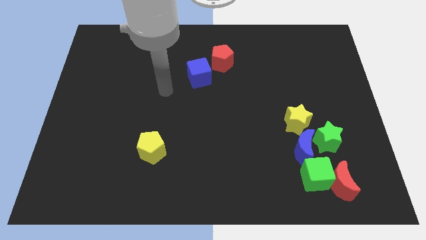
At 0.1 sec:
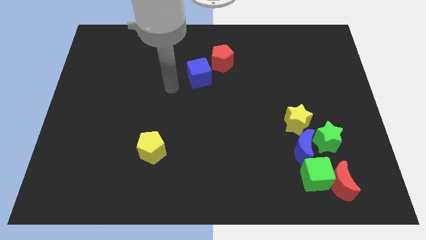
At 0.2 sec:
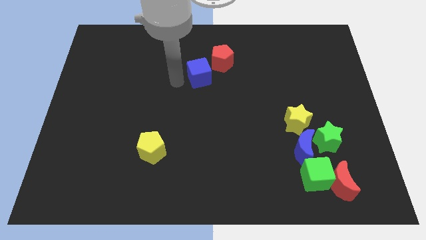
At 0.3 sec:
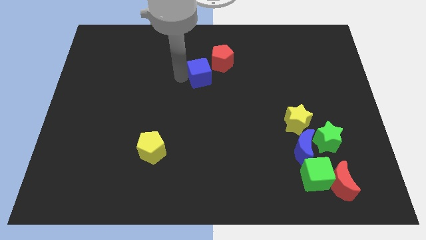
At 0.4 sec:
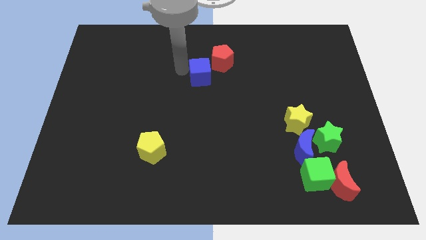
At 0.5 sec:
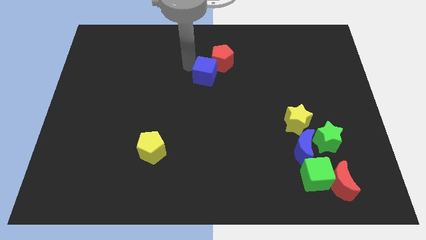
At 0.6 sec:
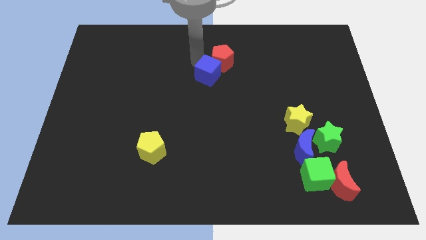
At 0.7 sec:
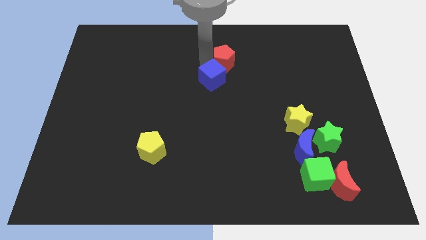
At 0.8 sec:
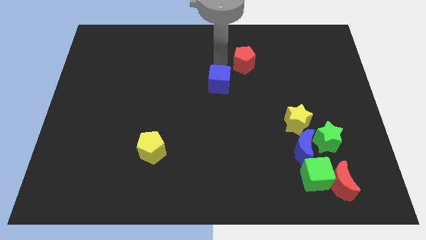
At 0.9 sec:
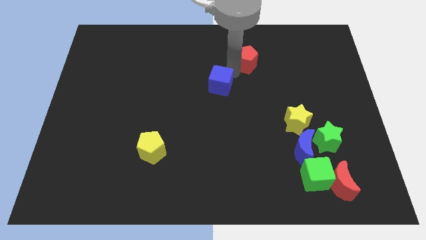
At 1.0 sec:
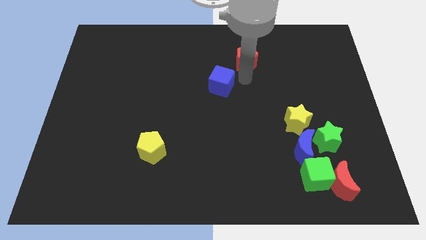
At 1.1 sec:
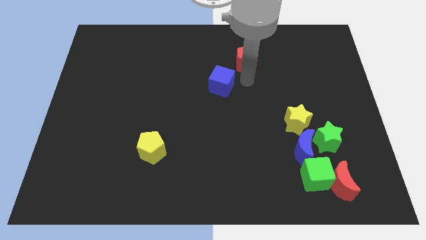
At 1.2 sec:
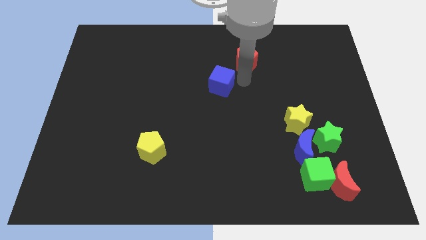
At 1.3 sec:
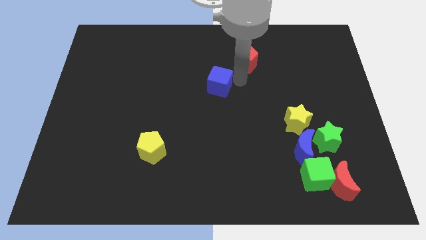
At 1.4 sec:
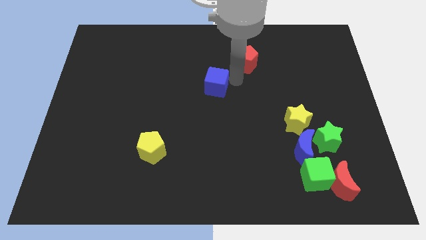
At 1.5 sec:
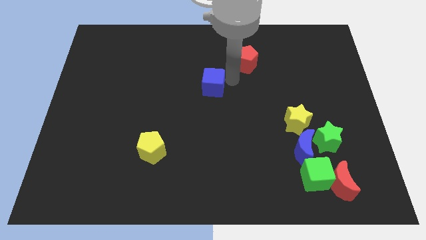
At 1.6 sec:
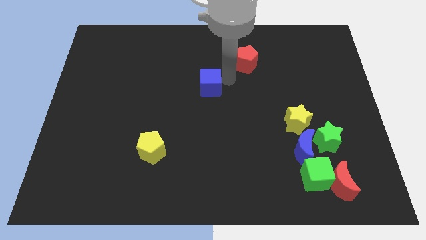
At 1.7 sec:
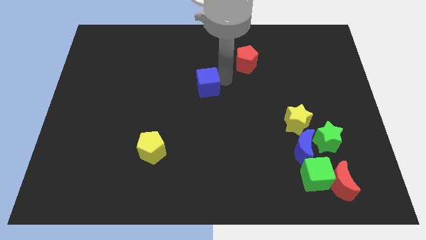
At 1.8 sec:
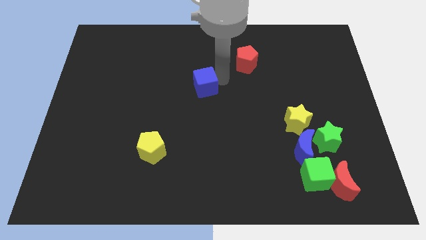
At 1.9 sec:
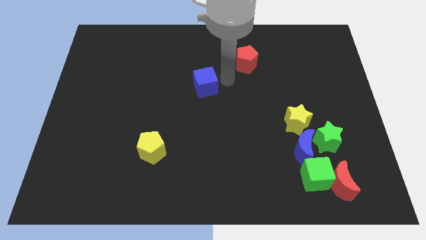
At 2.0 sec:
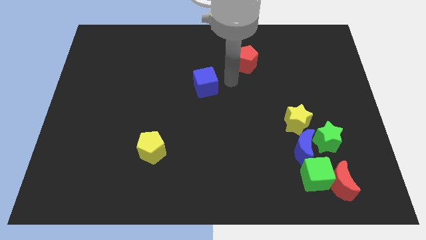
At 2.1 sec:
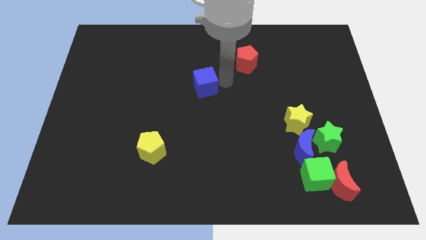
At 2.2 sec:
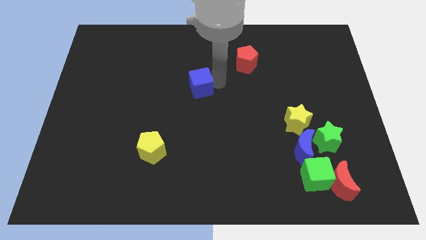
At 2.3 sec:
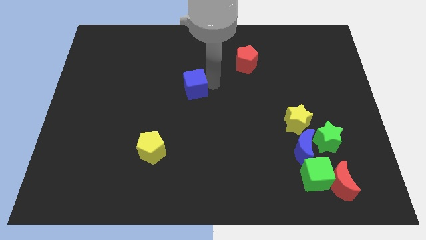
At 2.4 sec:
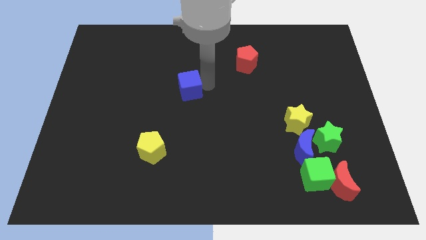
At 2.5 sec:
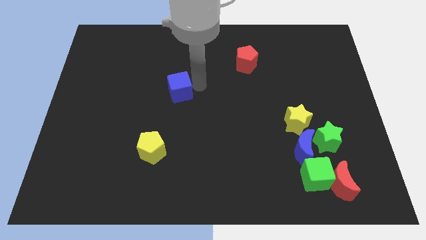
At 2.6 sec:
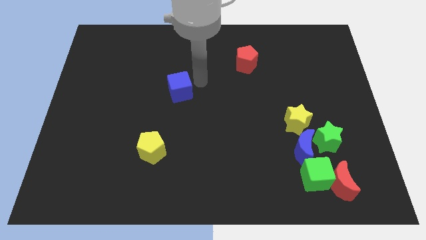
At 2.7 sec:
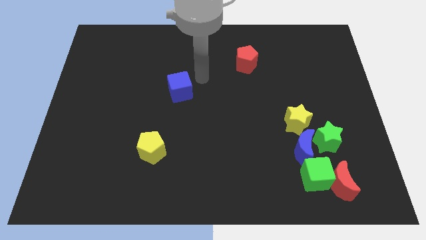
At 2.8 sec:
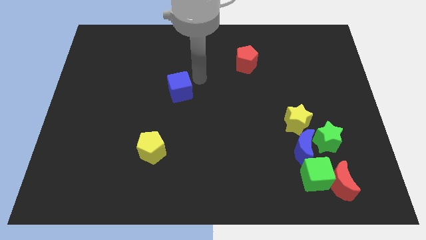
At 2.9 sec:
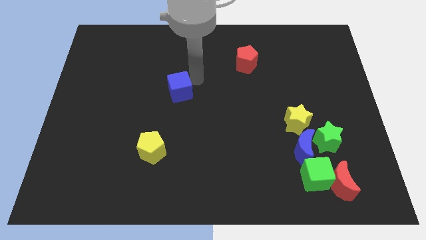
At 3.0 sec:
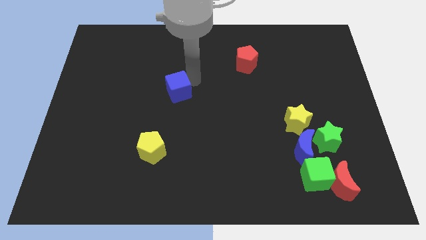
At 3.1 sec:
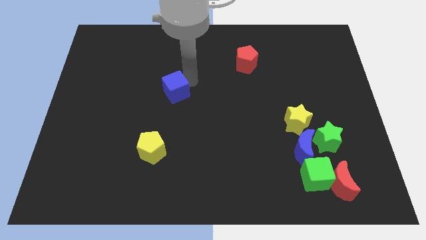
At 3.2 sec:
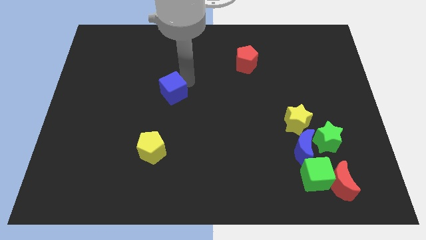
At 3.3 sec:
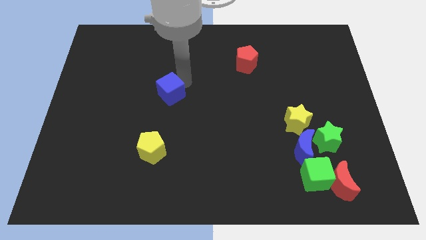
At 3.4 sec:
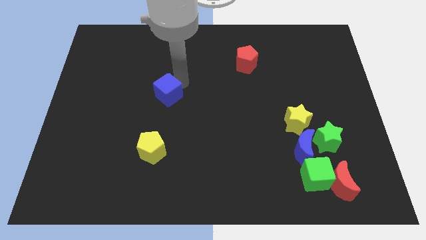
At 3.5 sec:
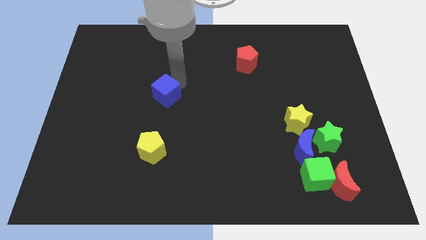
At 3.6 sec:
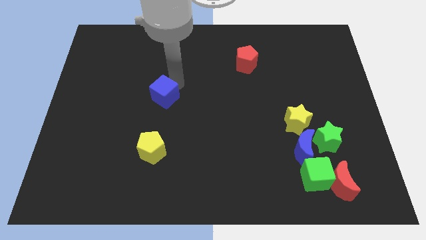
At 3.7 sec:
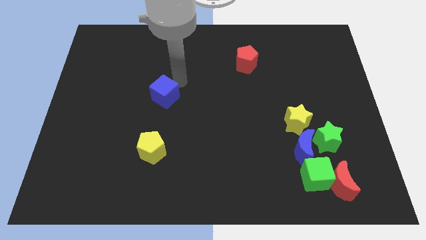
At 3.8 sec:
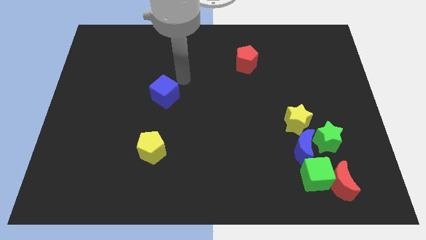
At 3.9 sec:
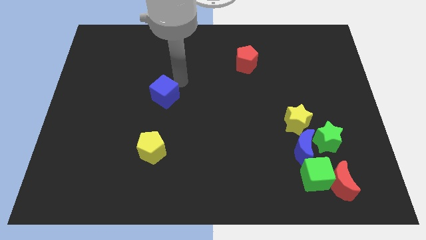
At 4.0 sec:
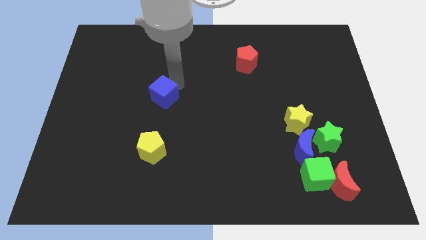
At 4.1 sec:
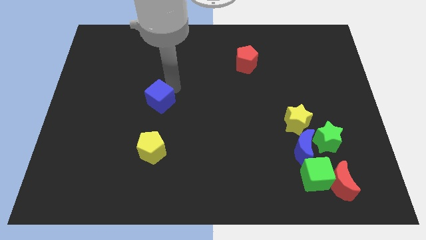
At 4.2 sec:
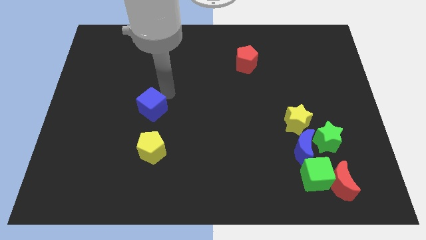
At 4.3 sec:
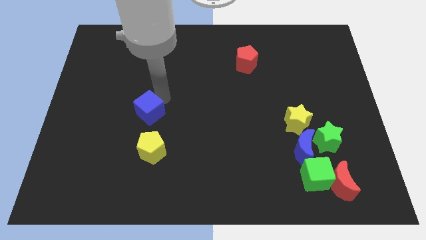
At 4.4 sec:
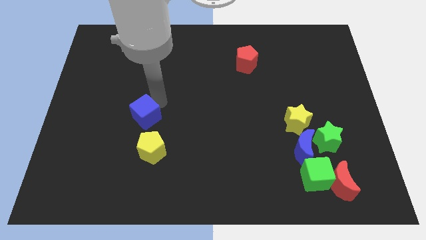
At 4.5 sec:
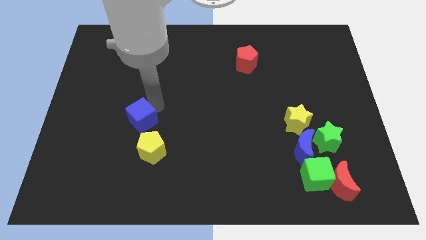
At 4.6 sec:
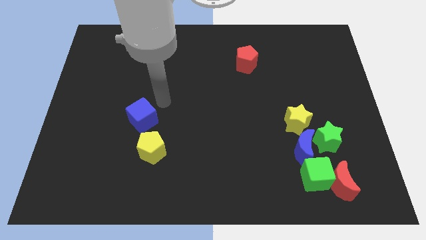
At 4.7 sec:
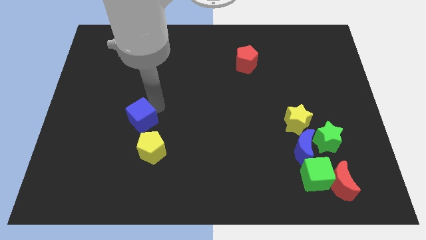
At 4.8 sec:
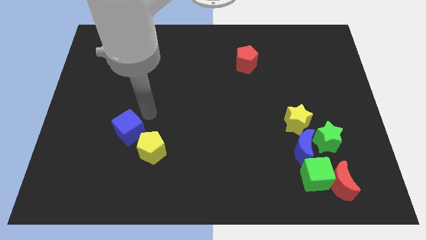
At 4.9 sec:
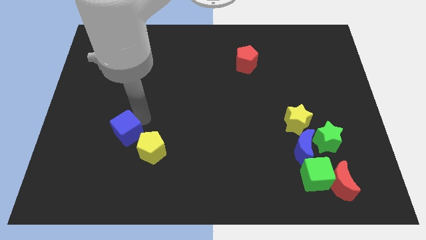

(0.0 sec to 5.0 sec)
move the blue cube just left of the yellow pentagon

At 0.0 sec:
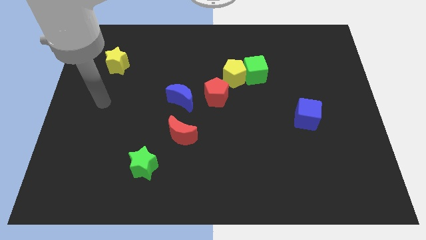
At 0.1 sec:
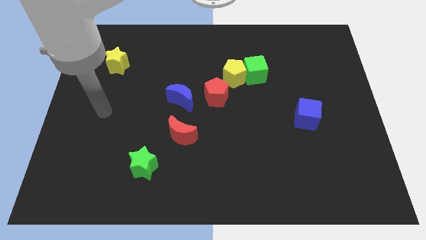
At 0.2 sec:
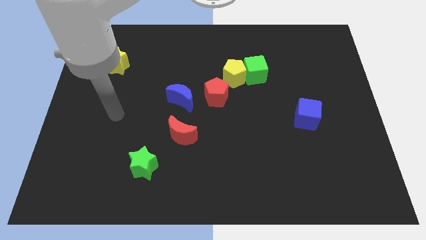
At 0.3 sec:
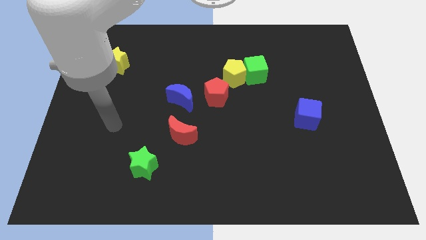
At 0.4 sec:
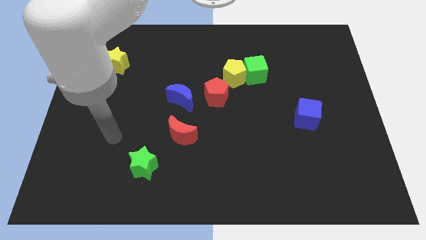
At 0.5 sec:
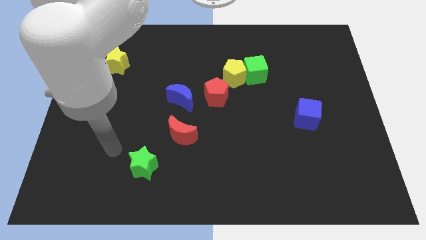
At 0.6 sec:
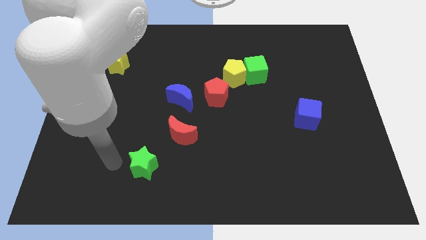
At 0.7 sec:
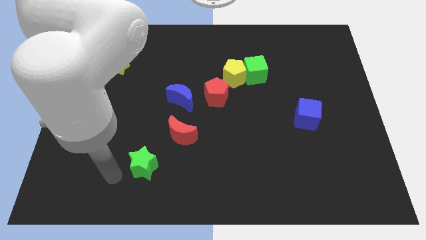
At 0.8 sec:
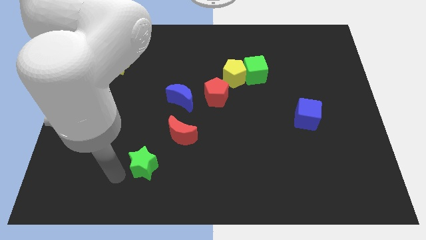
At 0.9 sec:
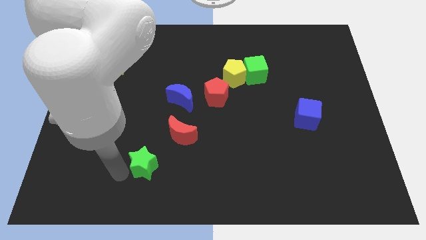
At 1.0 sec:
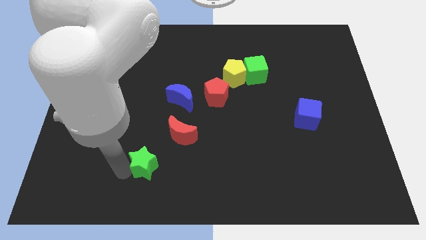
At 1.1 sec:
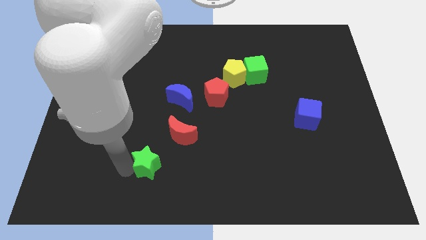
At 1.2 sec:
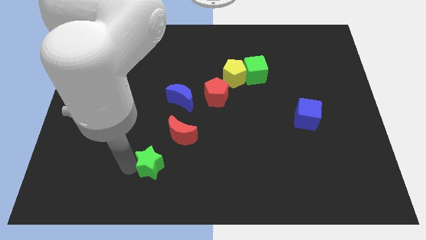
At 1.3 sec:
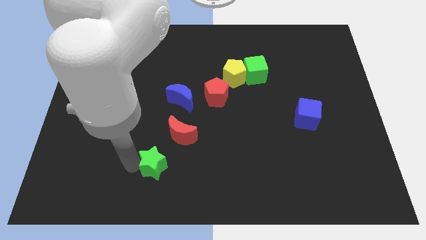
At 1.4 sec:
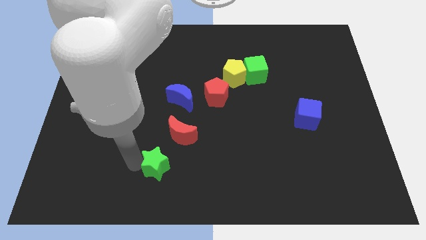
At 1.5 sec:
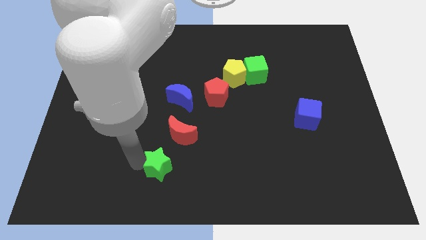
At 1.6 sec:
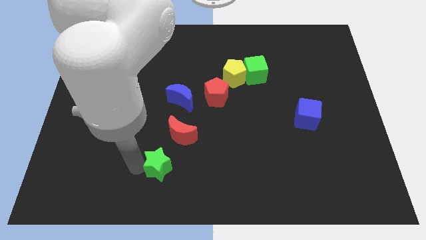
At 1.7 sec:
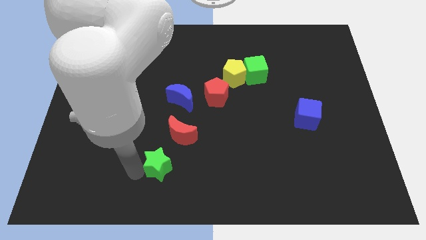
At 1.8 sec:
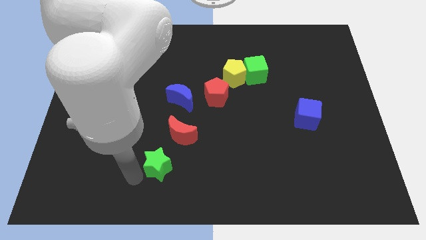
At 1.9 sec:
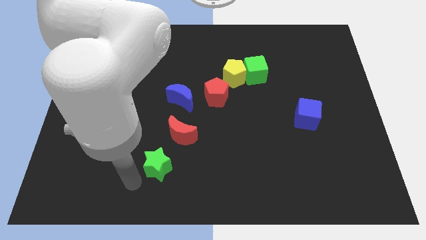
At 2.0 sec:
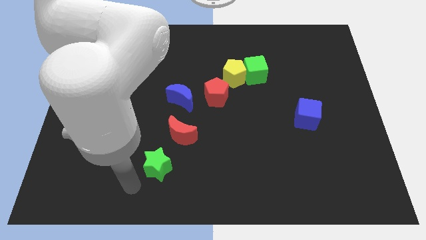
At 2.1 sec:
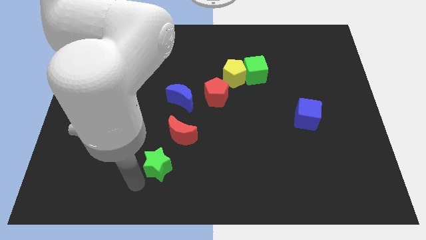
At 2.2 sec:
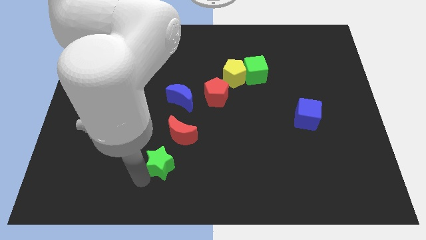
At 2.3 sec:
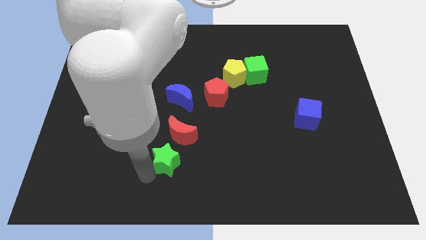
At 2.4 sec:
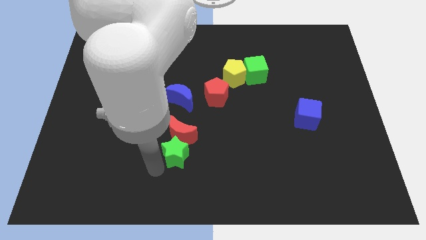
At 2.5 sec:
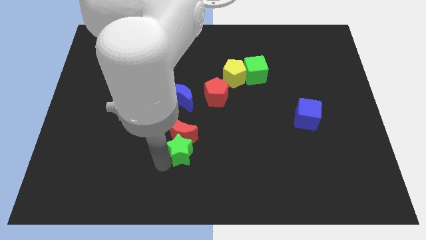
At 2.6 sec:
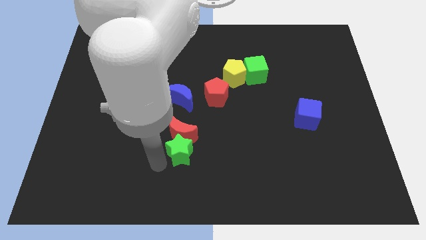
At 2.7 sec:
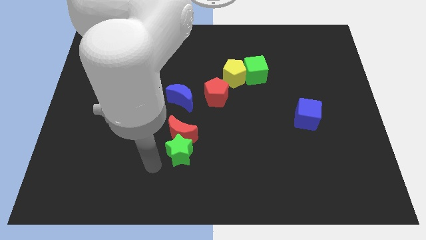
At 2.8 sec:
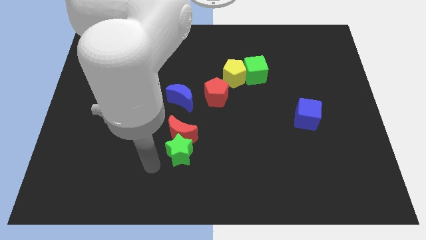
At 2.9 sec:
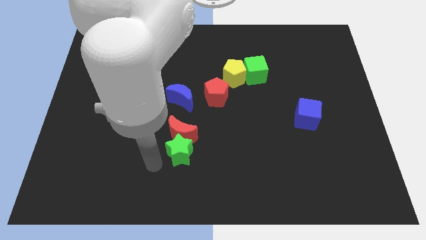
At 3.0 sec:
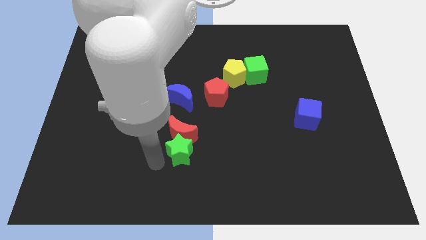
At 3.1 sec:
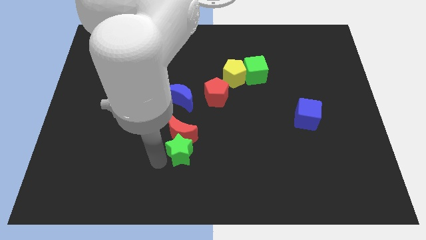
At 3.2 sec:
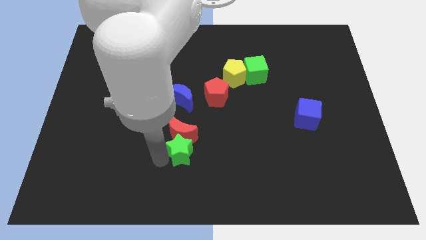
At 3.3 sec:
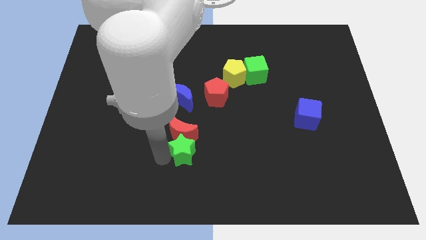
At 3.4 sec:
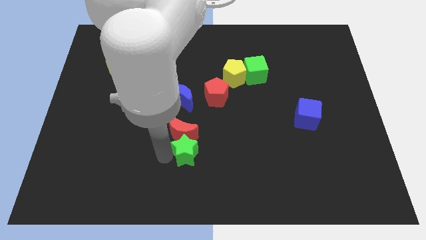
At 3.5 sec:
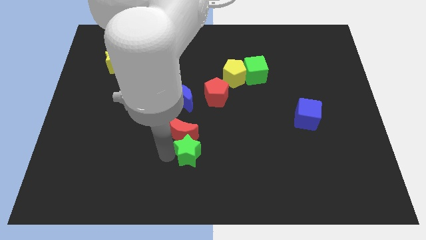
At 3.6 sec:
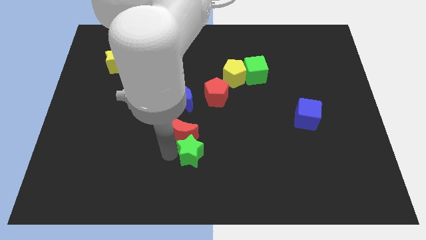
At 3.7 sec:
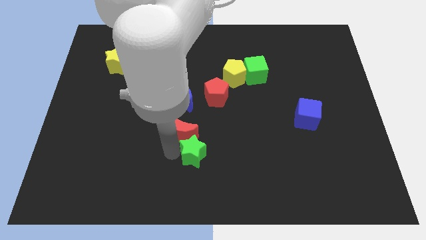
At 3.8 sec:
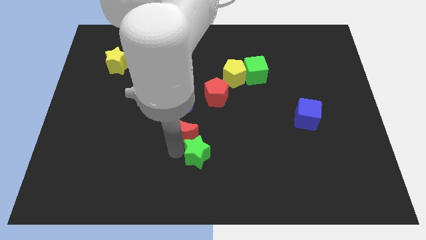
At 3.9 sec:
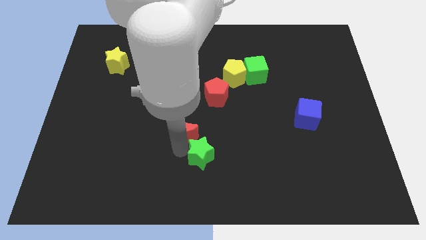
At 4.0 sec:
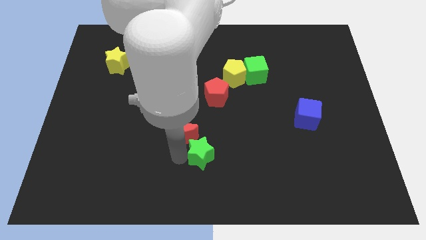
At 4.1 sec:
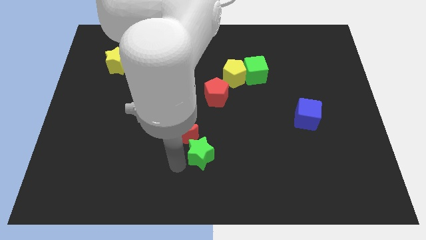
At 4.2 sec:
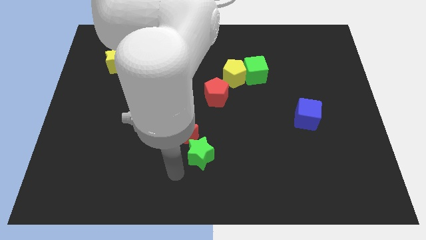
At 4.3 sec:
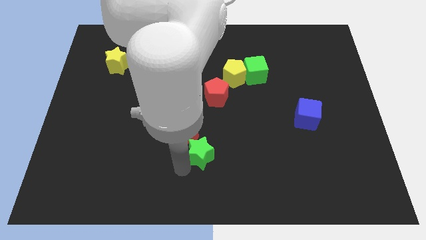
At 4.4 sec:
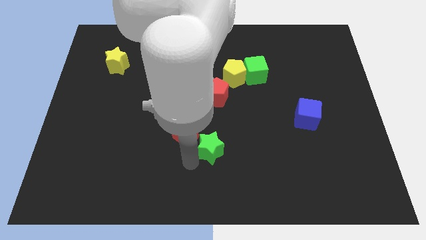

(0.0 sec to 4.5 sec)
move the green star just right of the red moon
